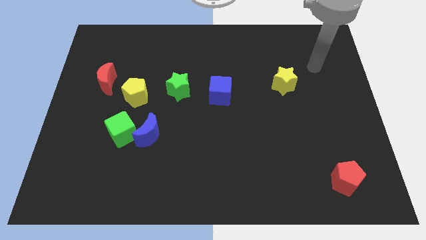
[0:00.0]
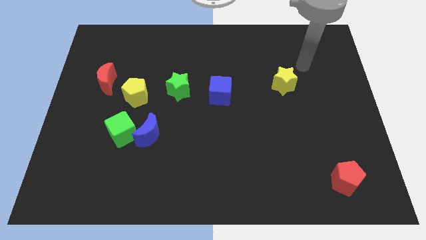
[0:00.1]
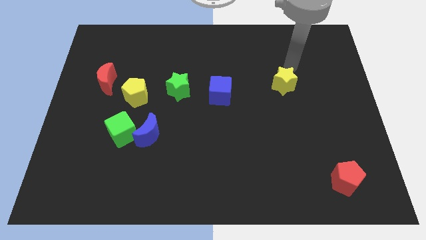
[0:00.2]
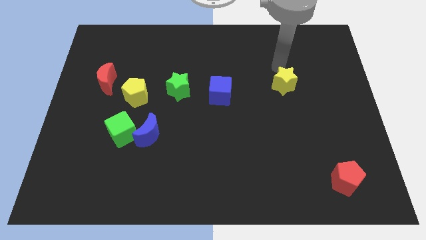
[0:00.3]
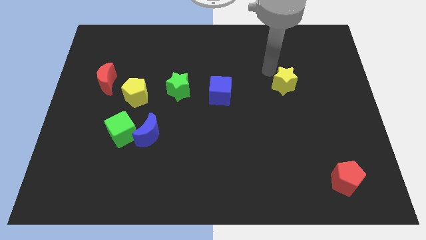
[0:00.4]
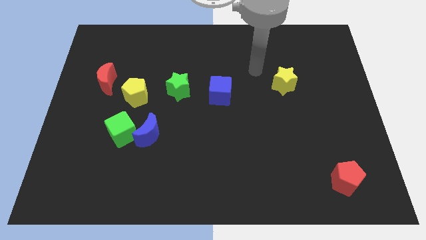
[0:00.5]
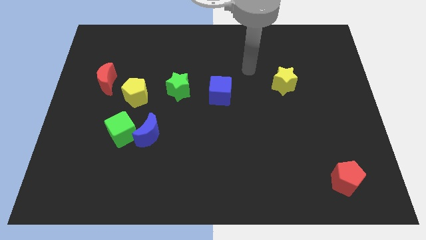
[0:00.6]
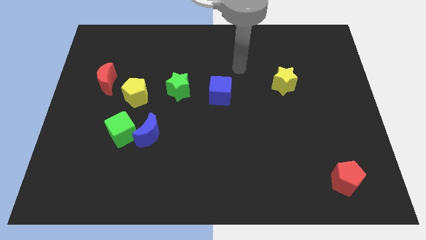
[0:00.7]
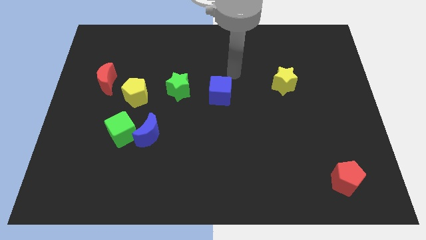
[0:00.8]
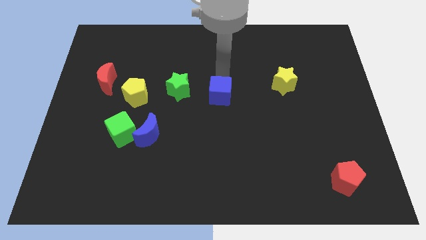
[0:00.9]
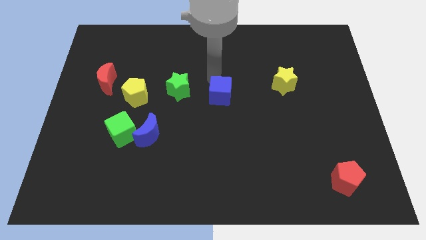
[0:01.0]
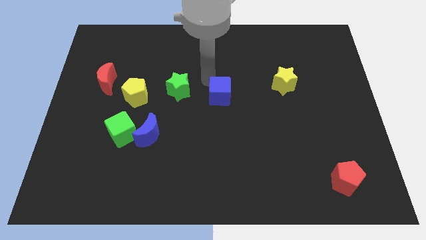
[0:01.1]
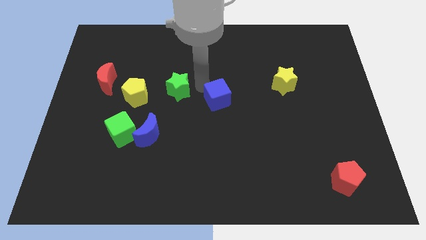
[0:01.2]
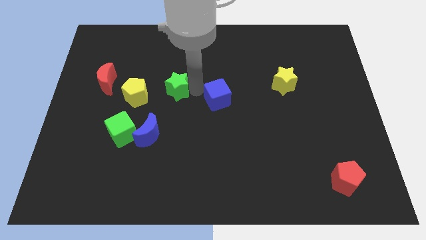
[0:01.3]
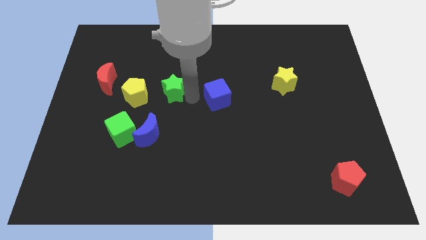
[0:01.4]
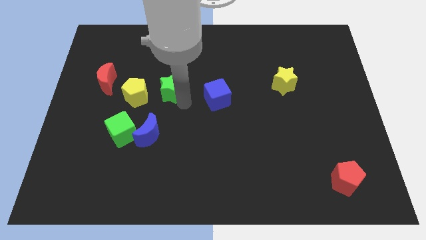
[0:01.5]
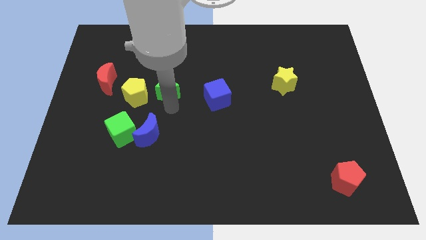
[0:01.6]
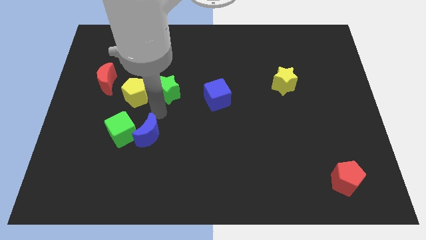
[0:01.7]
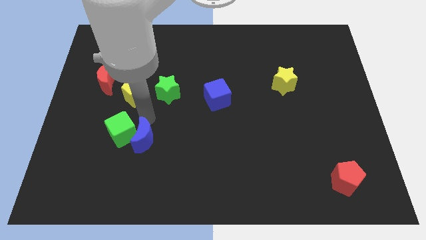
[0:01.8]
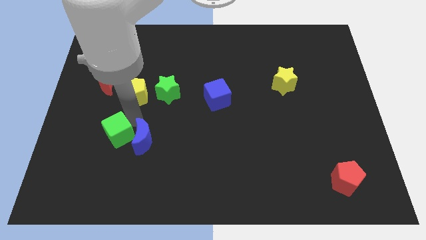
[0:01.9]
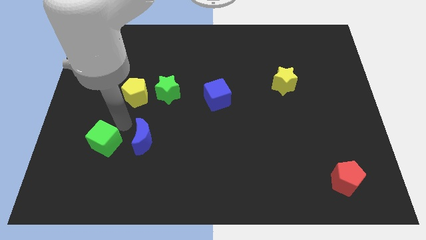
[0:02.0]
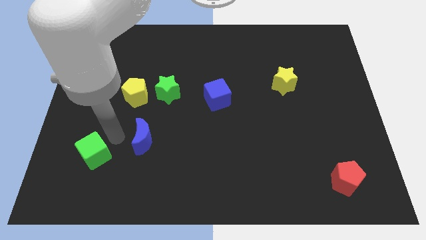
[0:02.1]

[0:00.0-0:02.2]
move the blue moon away from the green cube

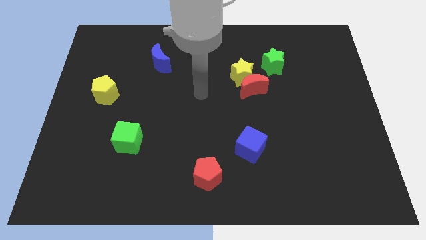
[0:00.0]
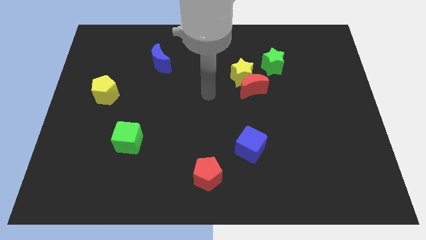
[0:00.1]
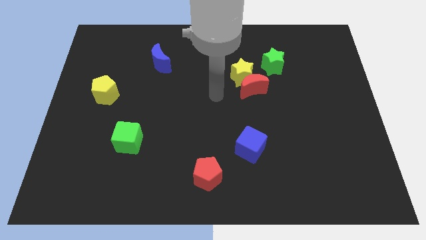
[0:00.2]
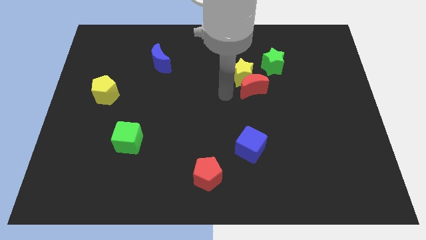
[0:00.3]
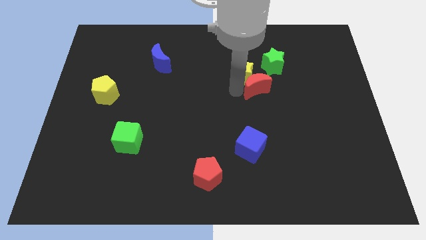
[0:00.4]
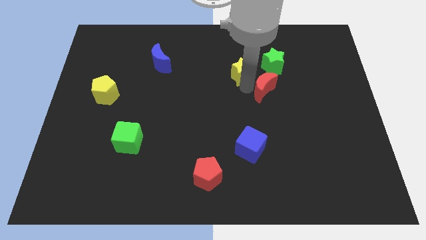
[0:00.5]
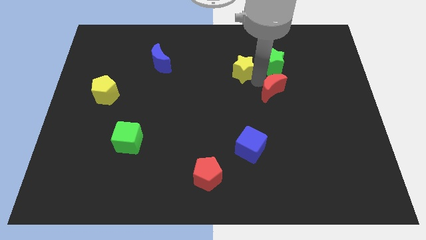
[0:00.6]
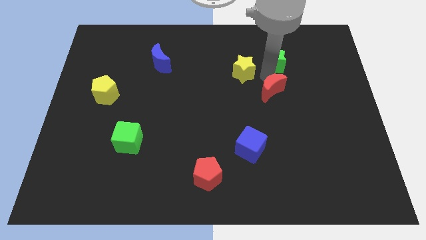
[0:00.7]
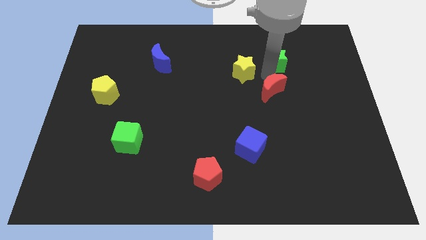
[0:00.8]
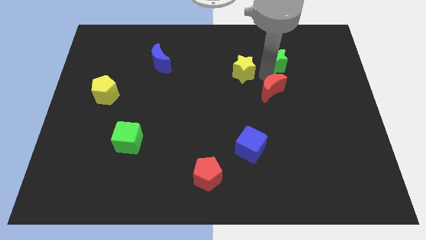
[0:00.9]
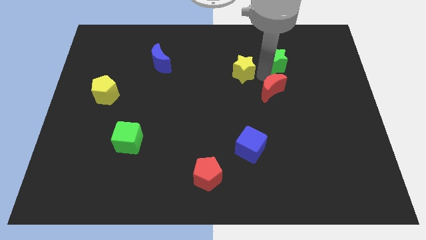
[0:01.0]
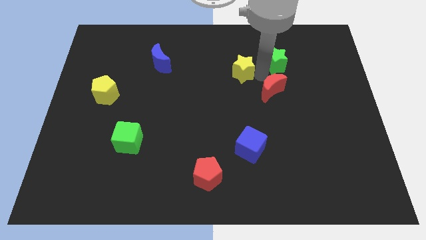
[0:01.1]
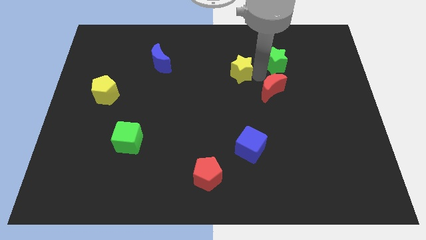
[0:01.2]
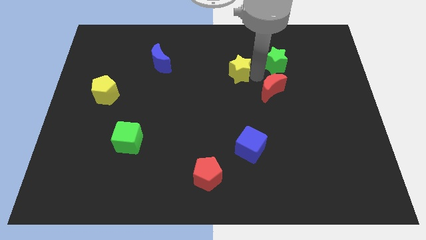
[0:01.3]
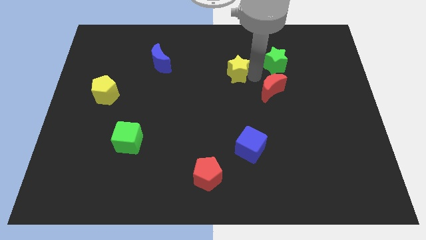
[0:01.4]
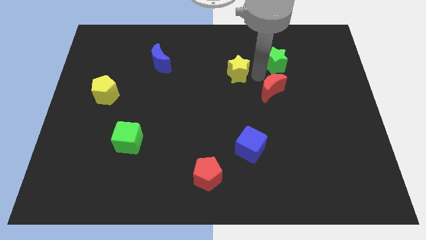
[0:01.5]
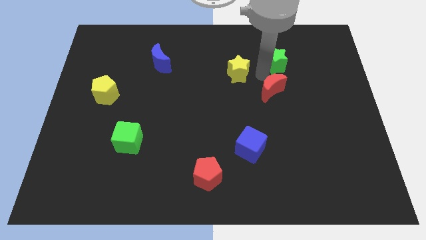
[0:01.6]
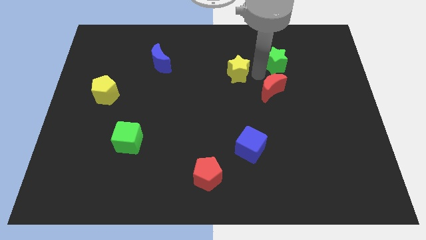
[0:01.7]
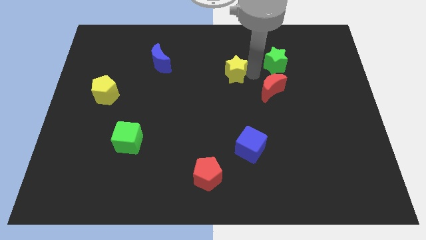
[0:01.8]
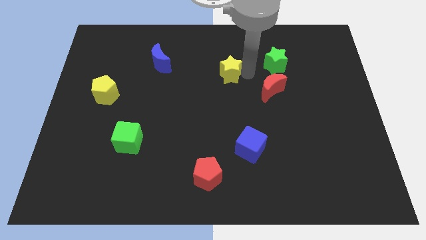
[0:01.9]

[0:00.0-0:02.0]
pull the yellow star apart from the red moon and green star

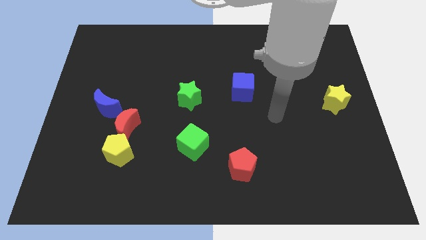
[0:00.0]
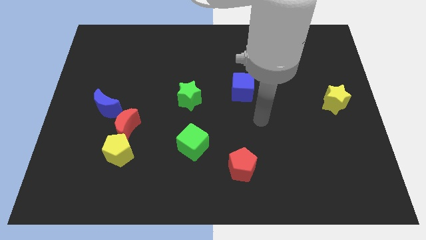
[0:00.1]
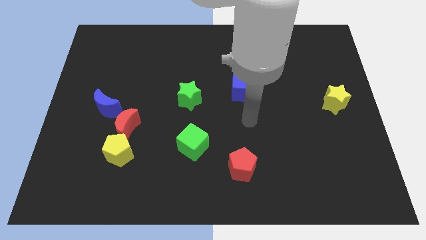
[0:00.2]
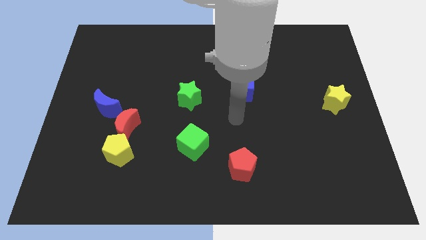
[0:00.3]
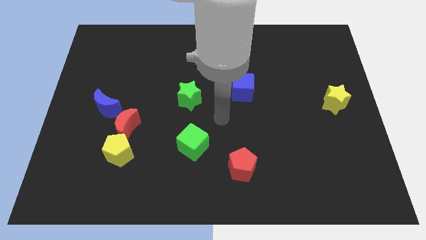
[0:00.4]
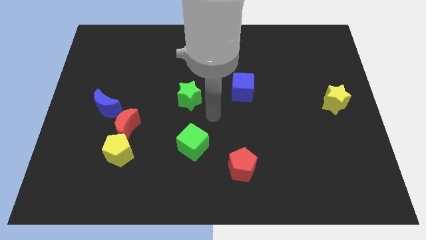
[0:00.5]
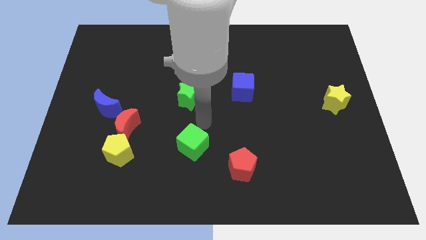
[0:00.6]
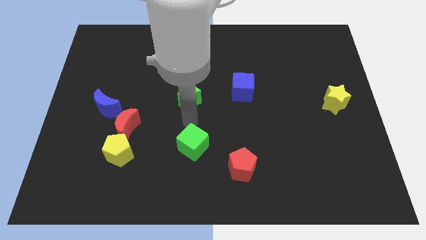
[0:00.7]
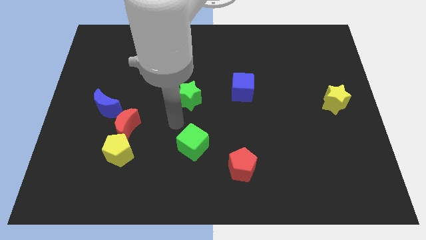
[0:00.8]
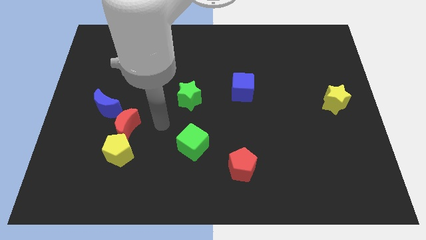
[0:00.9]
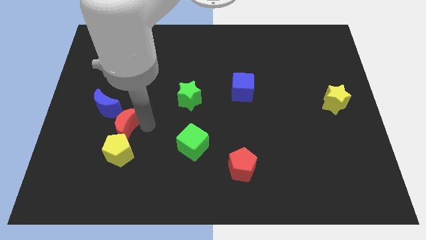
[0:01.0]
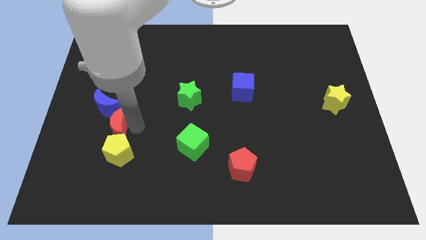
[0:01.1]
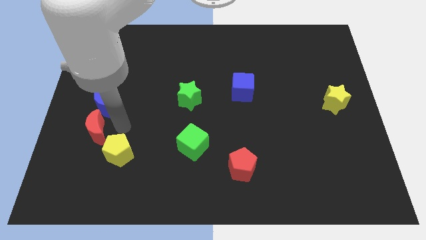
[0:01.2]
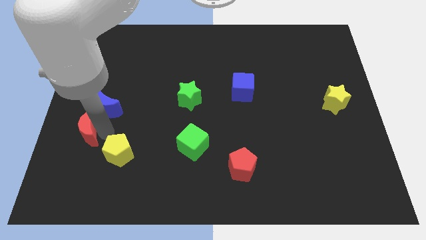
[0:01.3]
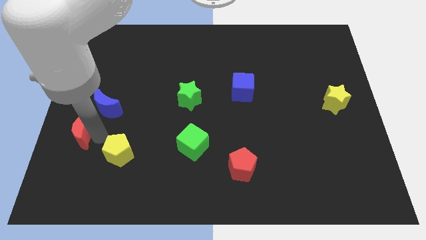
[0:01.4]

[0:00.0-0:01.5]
move the yellow pentagon away from the red moon

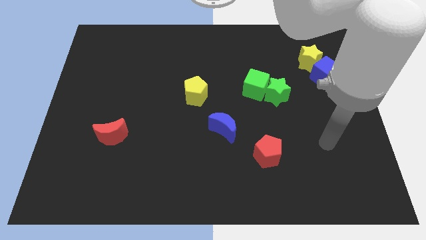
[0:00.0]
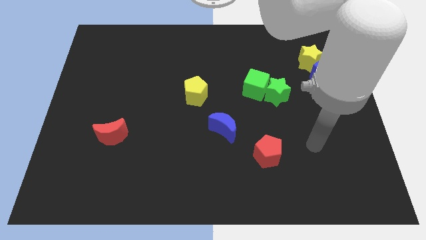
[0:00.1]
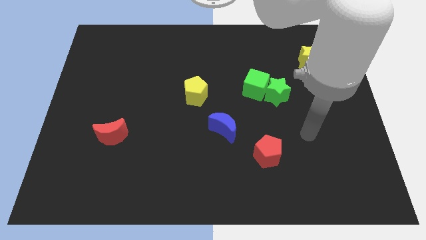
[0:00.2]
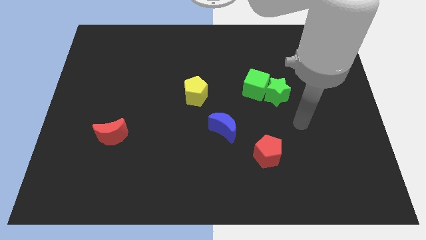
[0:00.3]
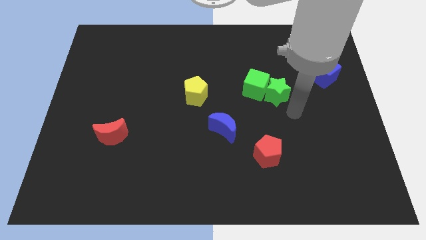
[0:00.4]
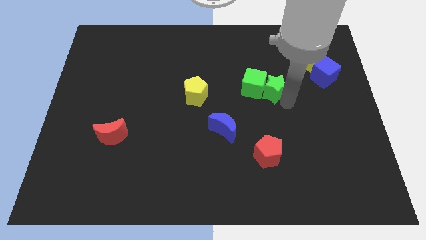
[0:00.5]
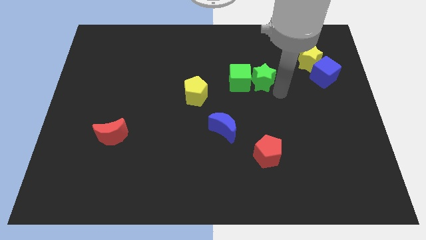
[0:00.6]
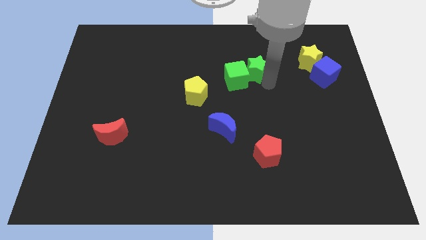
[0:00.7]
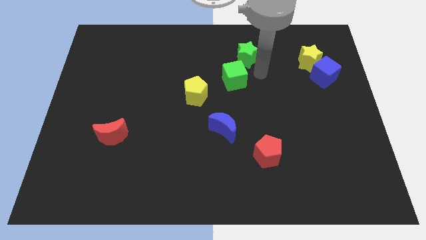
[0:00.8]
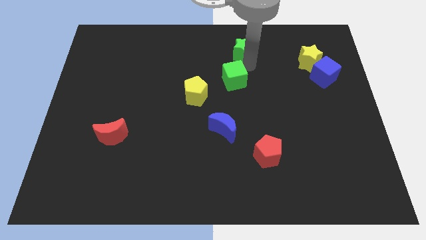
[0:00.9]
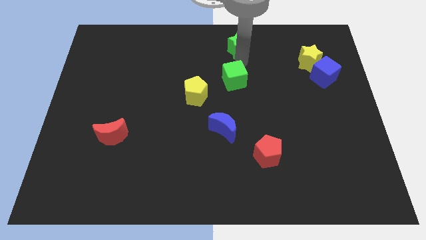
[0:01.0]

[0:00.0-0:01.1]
separate the green cube from the green star

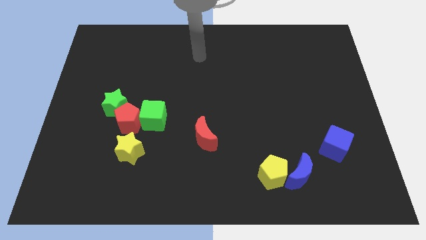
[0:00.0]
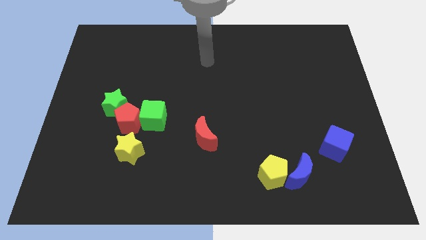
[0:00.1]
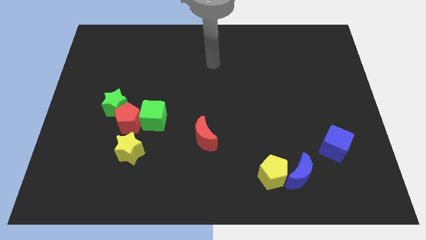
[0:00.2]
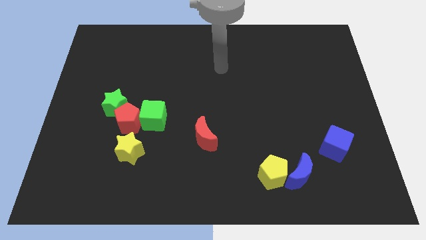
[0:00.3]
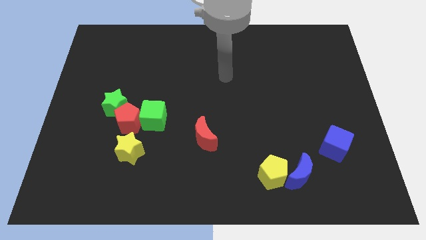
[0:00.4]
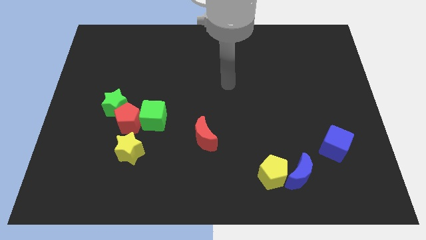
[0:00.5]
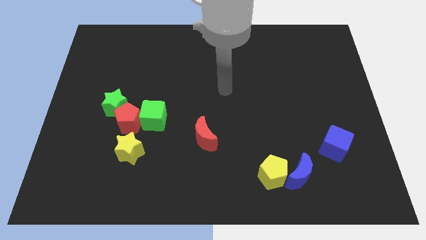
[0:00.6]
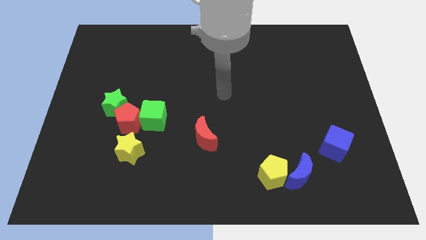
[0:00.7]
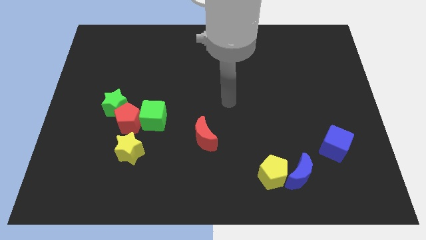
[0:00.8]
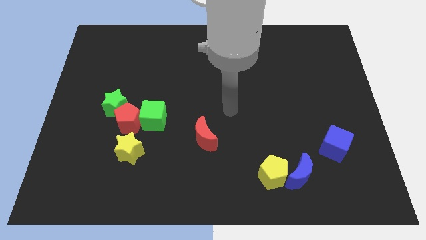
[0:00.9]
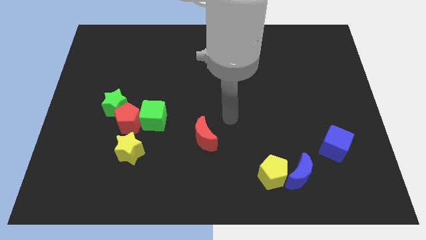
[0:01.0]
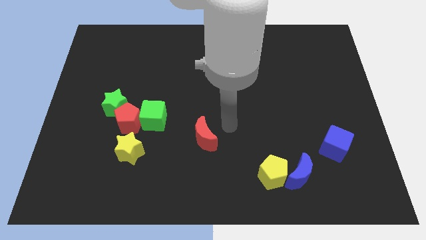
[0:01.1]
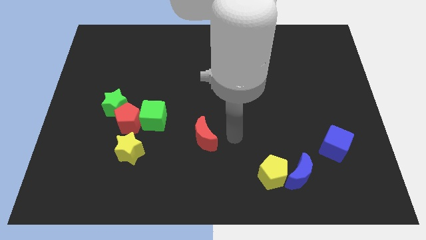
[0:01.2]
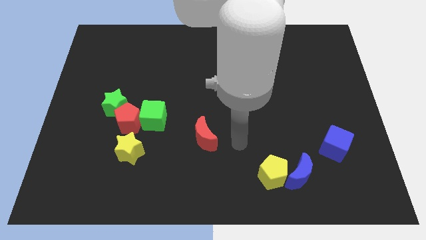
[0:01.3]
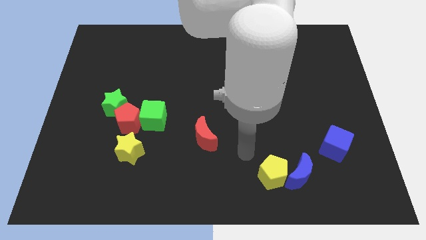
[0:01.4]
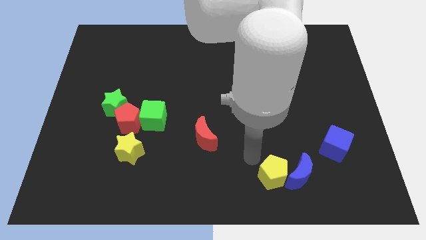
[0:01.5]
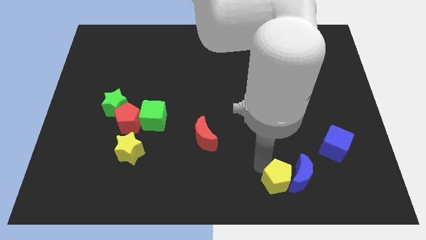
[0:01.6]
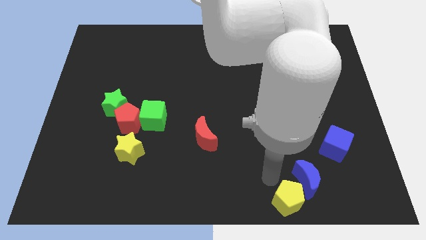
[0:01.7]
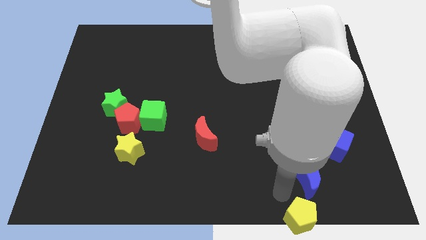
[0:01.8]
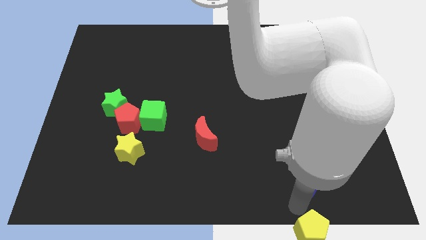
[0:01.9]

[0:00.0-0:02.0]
separate the blue moon from the yellow pentagon

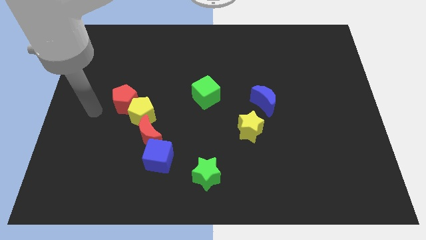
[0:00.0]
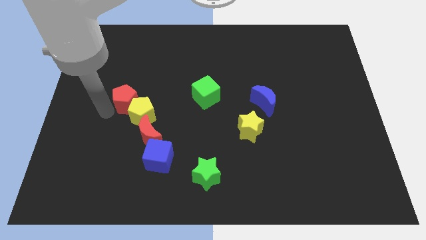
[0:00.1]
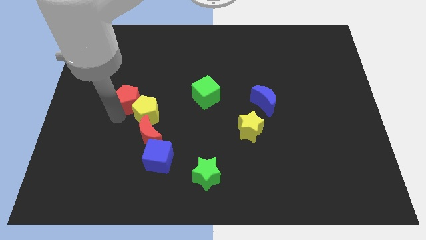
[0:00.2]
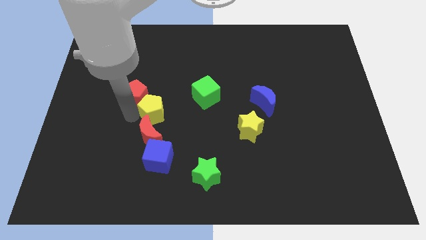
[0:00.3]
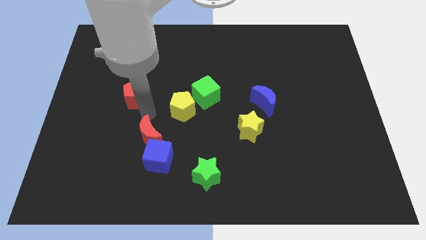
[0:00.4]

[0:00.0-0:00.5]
separate the red pentagon from the yellow pentagon

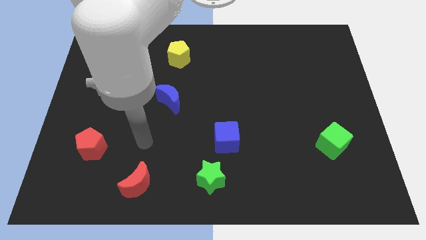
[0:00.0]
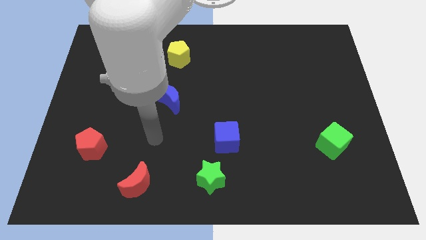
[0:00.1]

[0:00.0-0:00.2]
move the blue cube away from the green star
